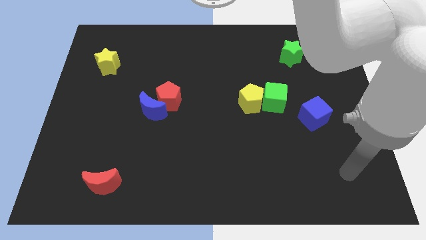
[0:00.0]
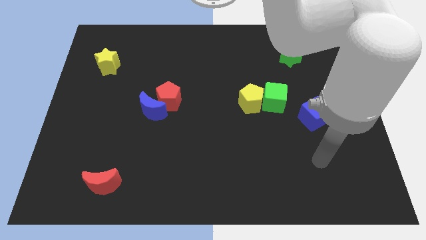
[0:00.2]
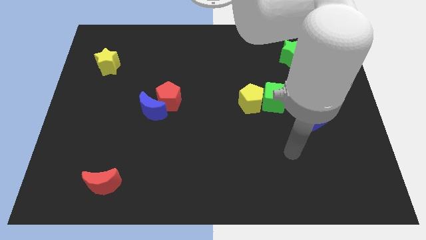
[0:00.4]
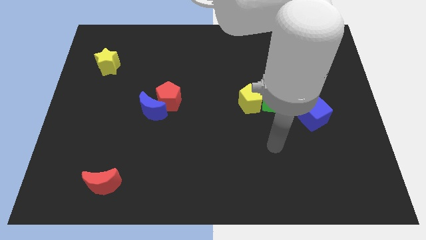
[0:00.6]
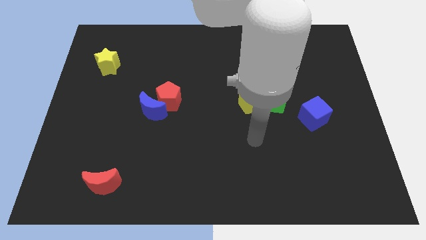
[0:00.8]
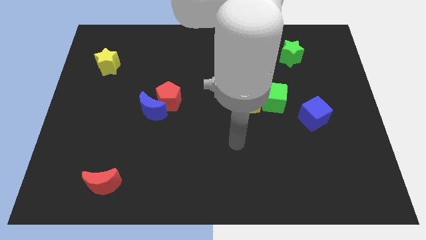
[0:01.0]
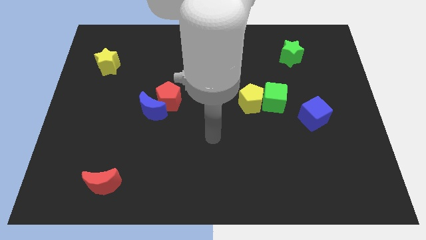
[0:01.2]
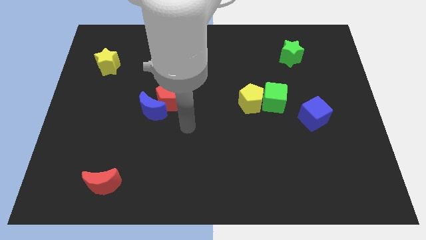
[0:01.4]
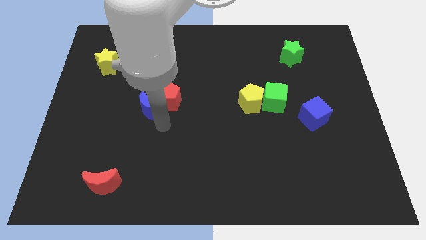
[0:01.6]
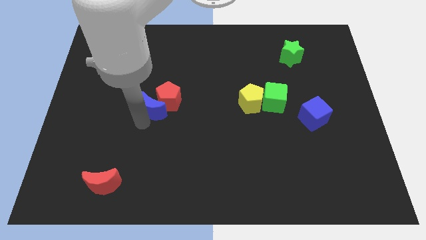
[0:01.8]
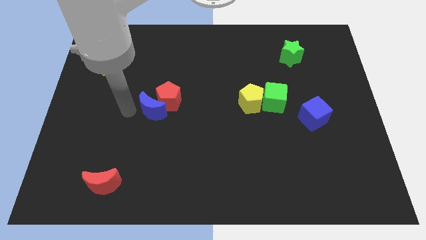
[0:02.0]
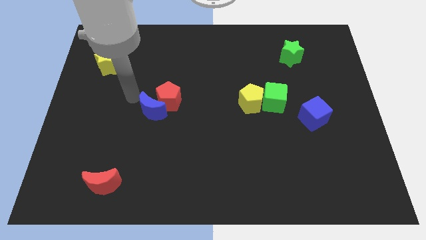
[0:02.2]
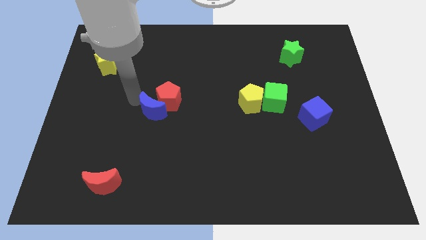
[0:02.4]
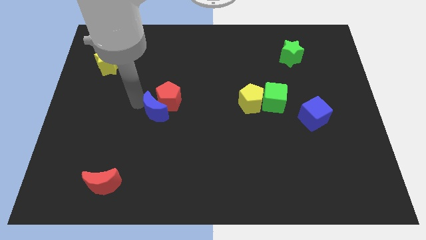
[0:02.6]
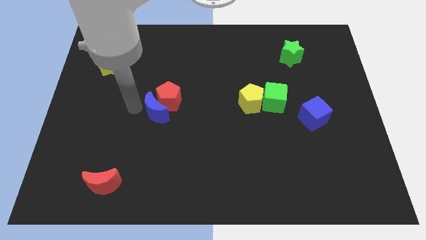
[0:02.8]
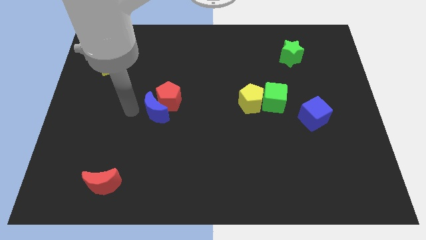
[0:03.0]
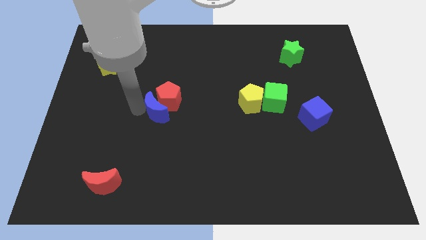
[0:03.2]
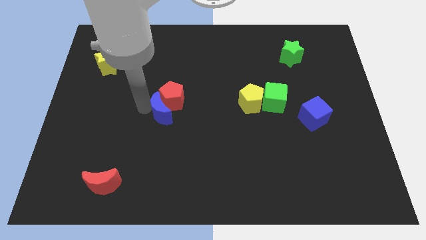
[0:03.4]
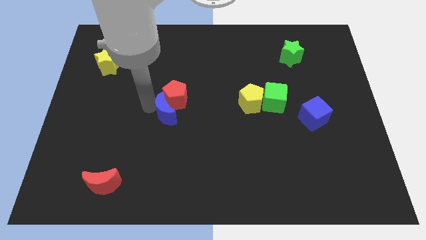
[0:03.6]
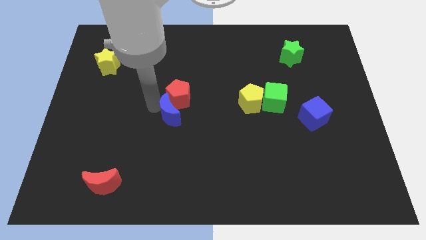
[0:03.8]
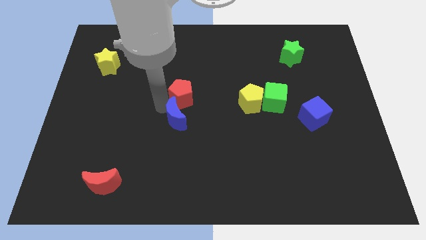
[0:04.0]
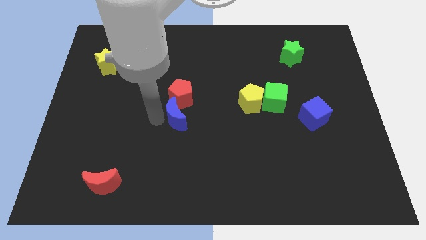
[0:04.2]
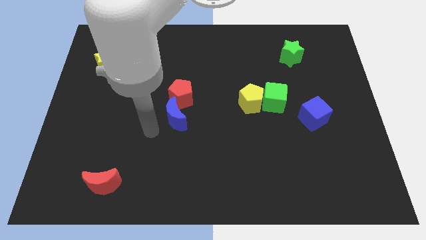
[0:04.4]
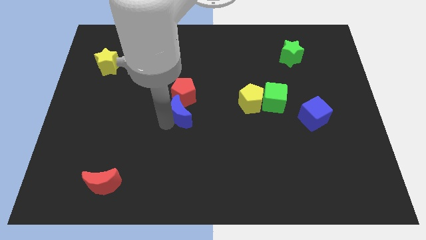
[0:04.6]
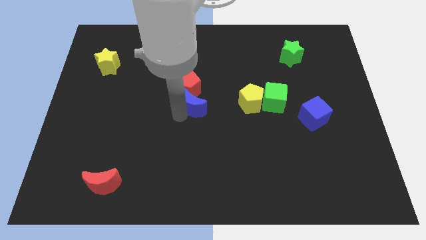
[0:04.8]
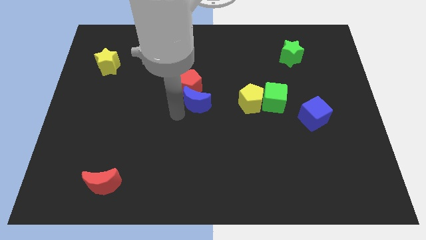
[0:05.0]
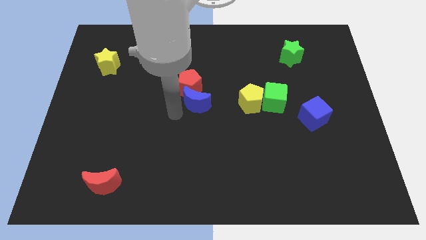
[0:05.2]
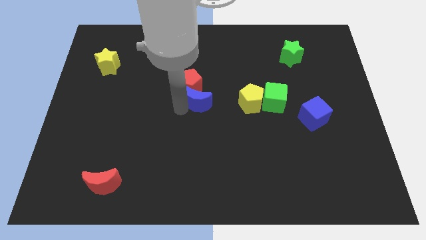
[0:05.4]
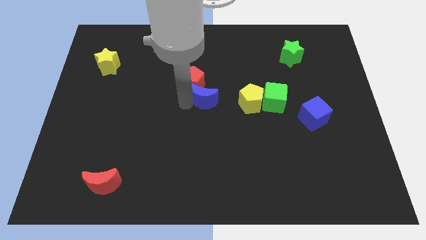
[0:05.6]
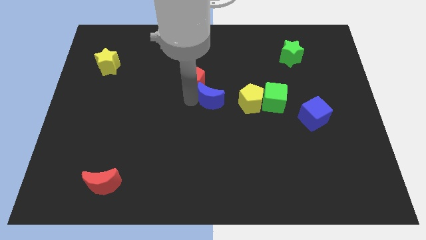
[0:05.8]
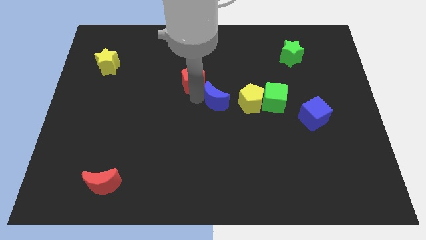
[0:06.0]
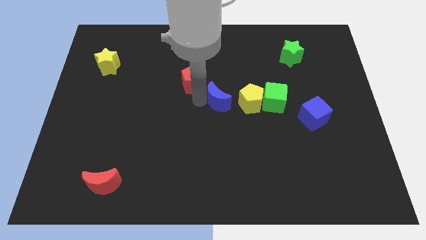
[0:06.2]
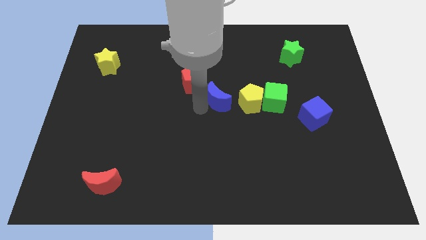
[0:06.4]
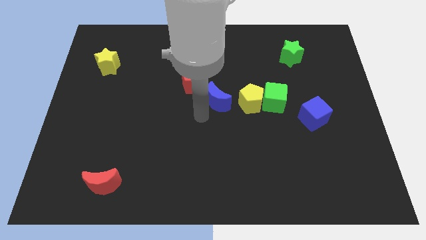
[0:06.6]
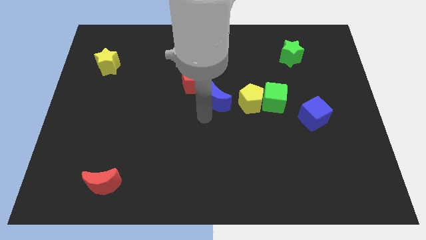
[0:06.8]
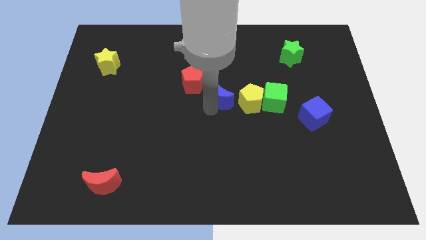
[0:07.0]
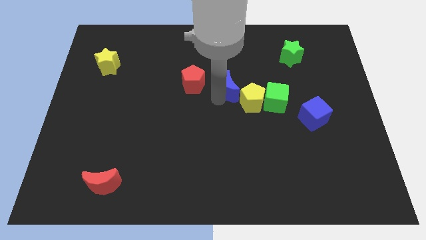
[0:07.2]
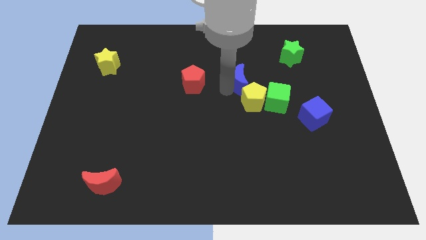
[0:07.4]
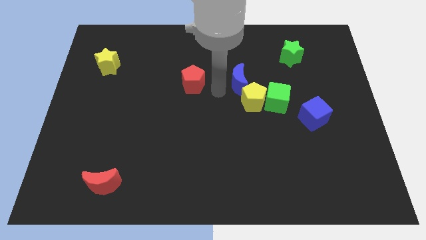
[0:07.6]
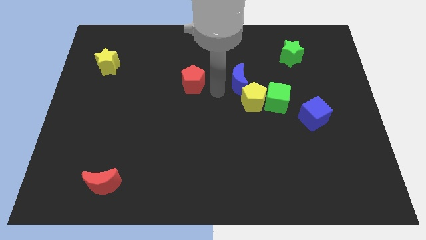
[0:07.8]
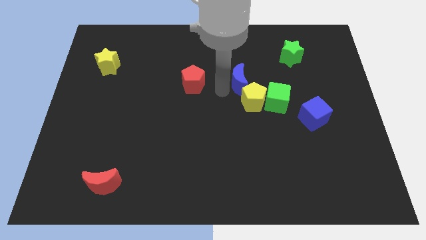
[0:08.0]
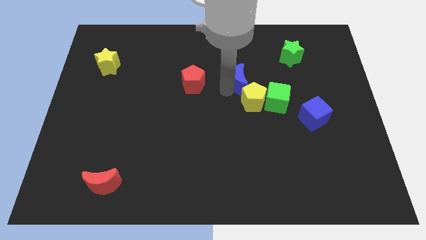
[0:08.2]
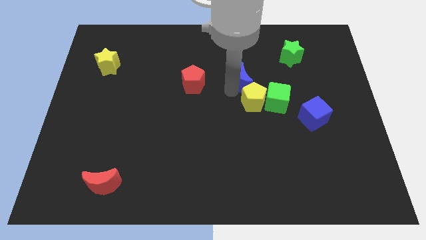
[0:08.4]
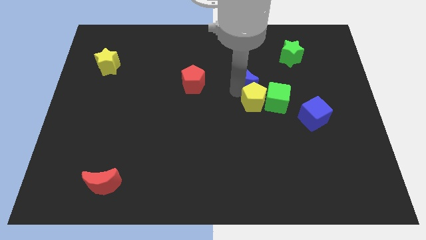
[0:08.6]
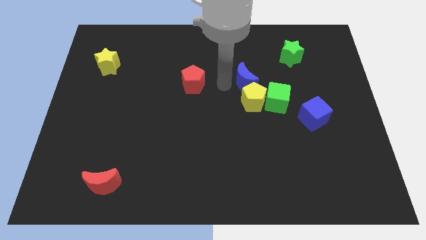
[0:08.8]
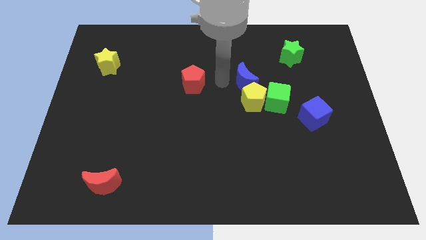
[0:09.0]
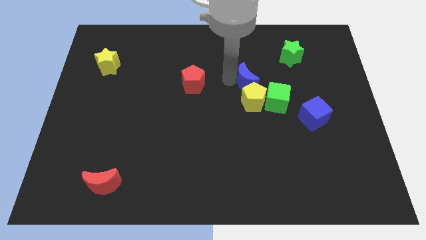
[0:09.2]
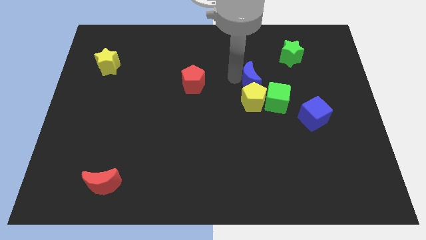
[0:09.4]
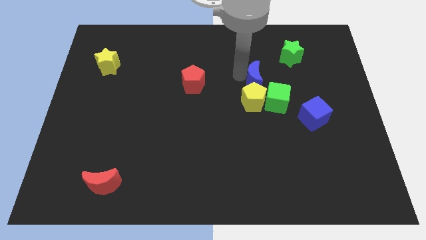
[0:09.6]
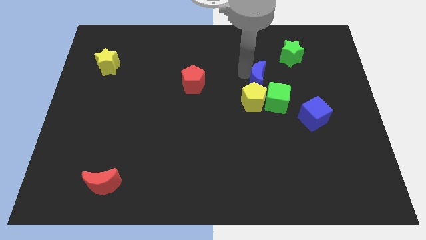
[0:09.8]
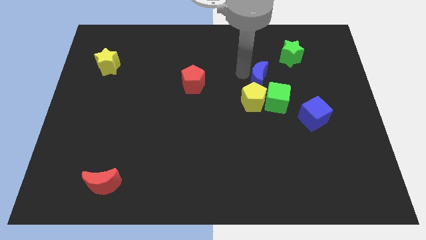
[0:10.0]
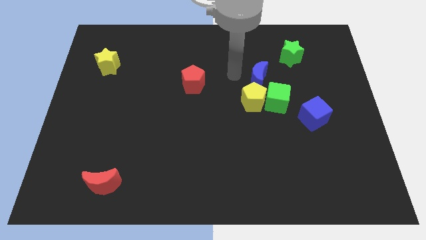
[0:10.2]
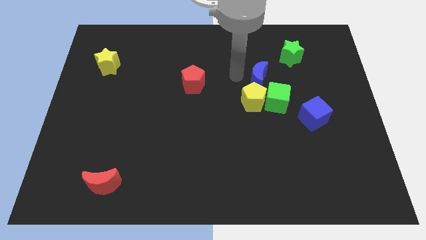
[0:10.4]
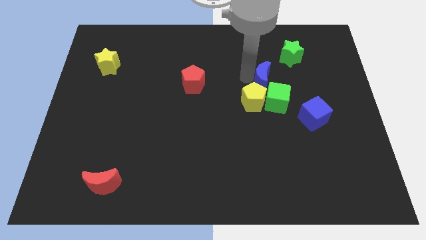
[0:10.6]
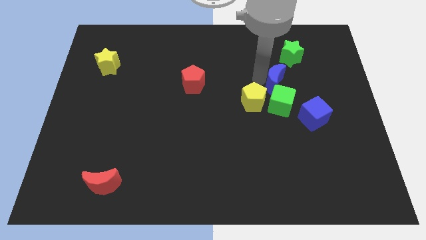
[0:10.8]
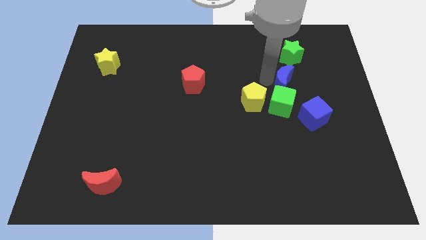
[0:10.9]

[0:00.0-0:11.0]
push the blue moon diagonally up and to the right of the green cube

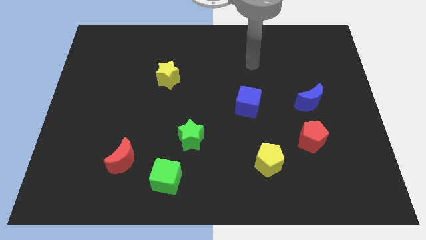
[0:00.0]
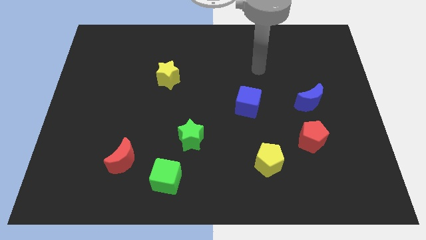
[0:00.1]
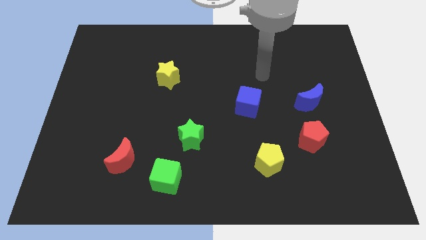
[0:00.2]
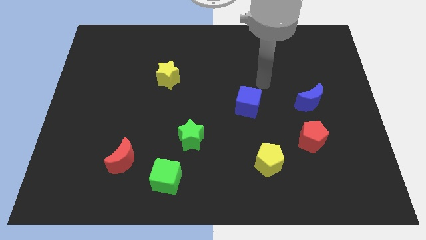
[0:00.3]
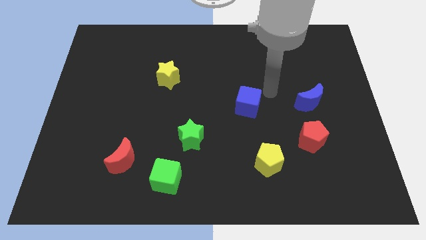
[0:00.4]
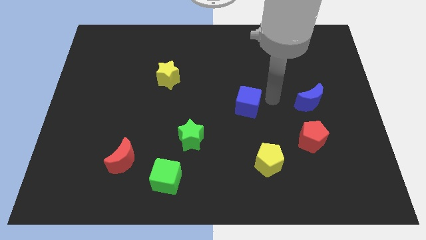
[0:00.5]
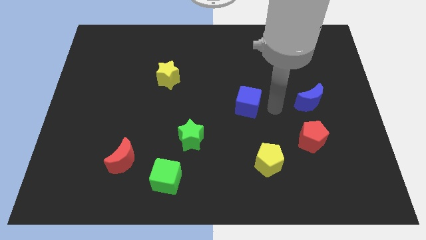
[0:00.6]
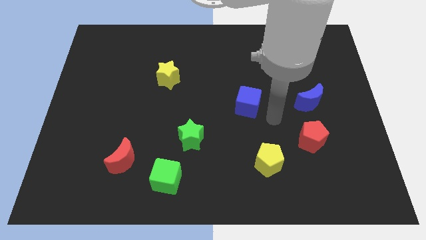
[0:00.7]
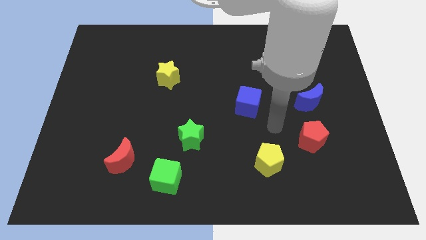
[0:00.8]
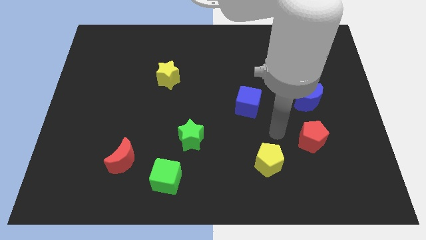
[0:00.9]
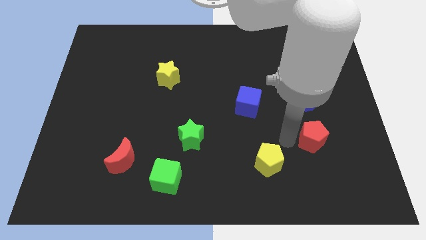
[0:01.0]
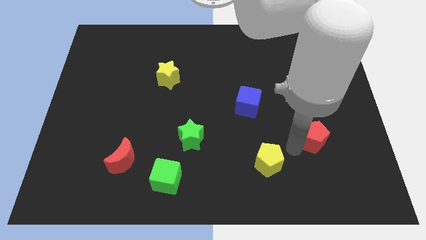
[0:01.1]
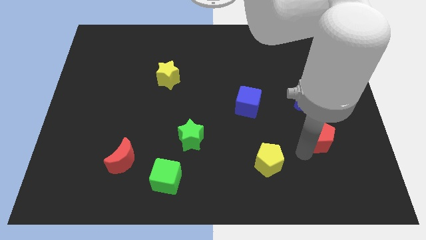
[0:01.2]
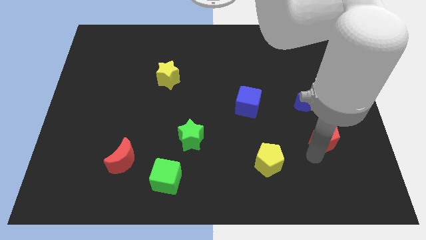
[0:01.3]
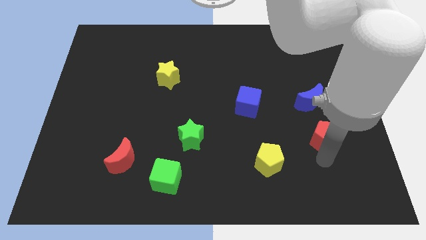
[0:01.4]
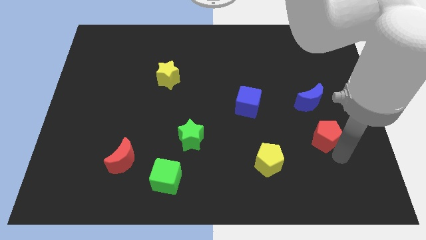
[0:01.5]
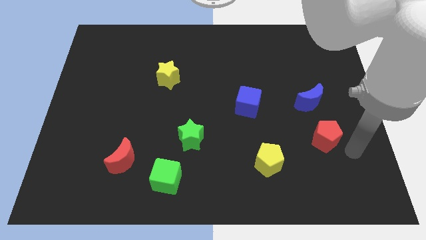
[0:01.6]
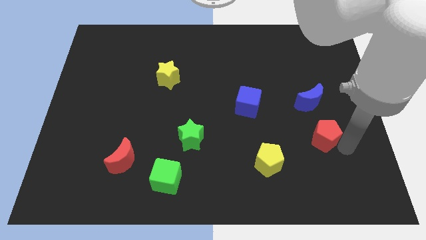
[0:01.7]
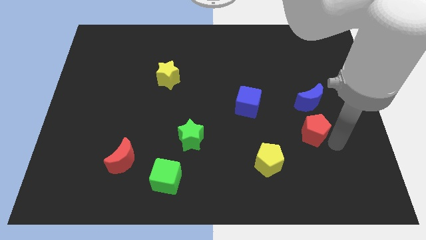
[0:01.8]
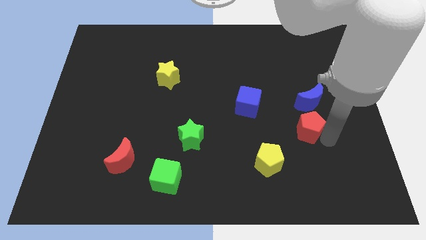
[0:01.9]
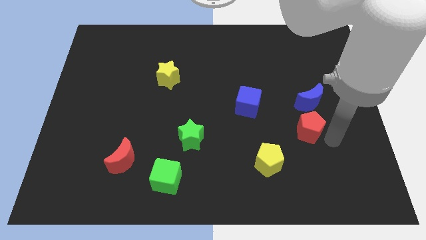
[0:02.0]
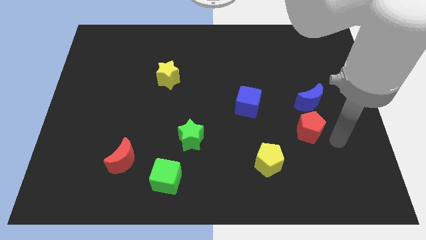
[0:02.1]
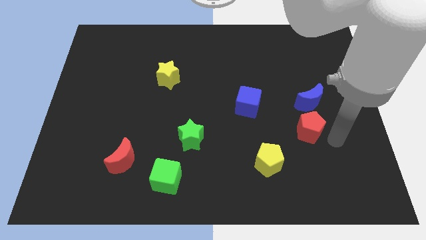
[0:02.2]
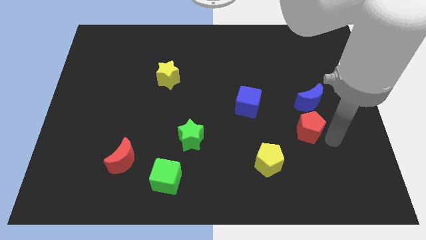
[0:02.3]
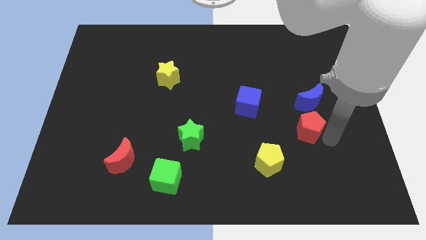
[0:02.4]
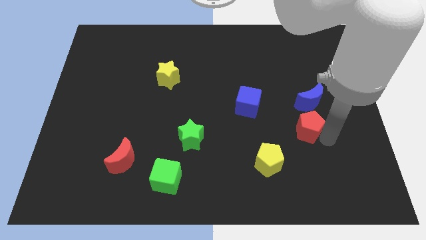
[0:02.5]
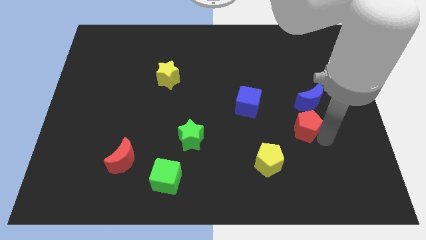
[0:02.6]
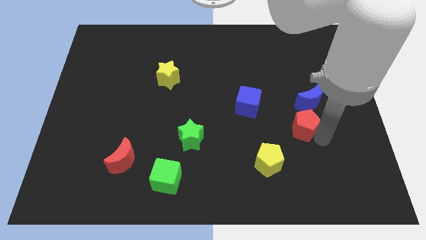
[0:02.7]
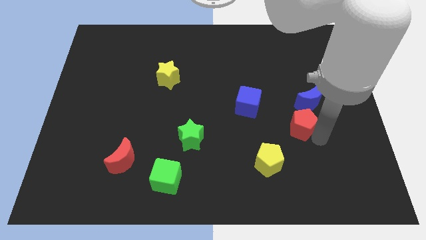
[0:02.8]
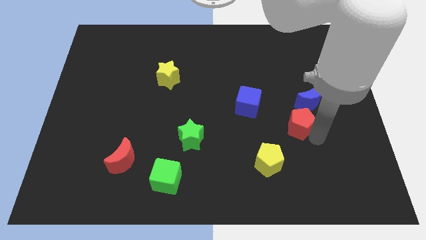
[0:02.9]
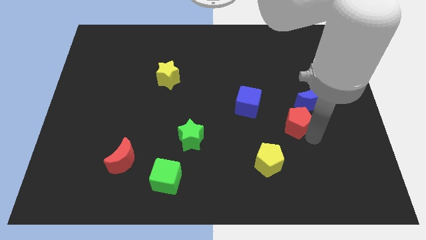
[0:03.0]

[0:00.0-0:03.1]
slide the red pentagon to the bottom right side of the blue cube
